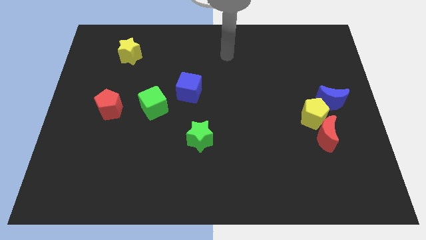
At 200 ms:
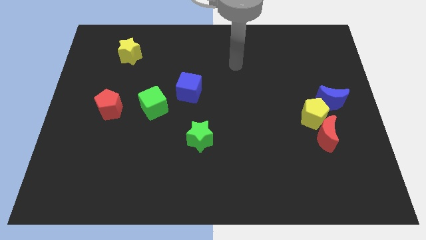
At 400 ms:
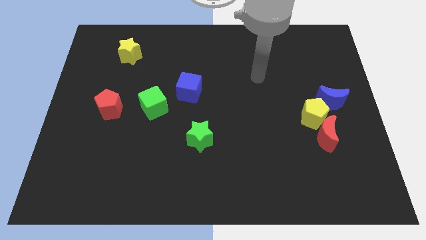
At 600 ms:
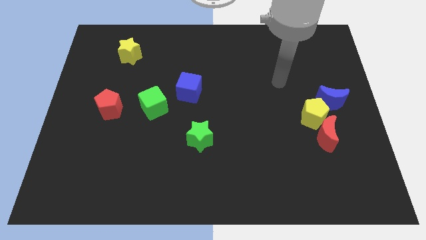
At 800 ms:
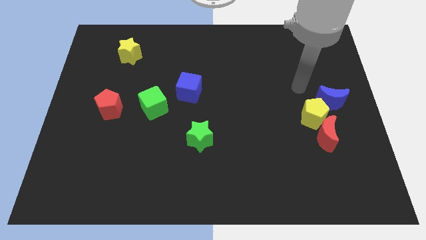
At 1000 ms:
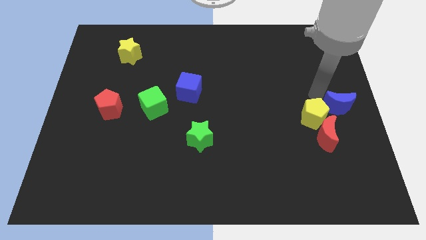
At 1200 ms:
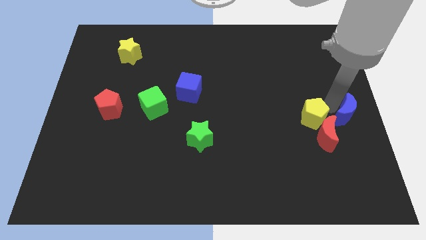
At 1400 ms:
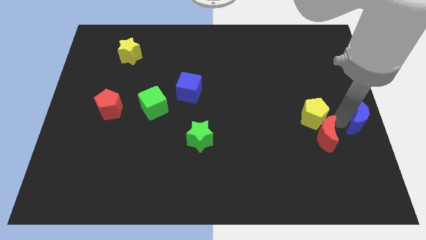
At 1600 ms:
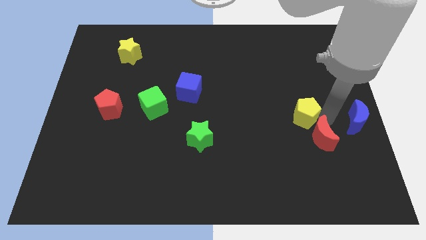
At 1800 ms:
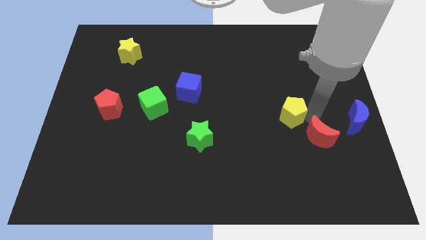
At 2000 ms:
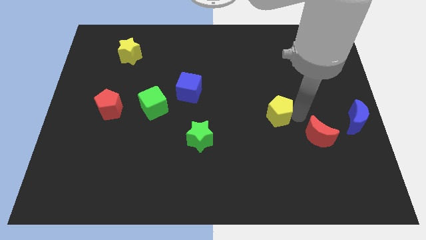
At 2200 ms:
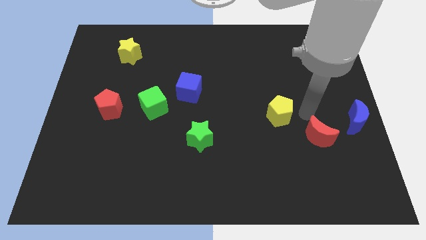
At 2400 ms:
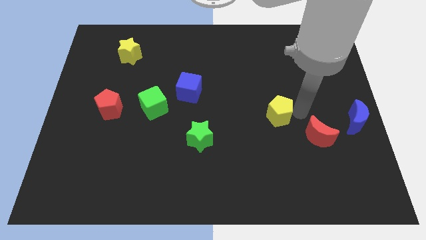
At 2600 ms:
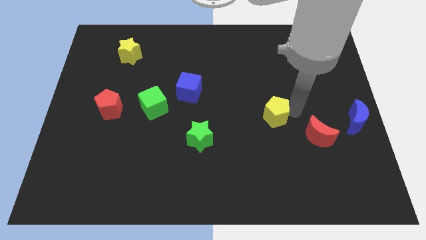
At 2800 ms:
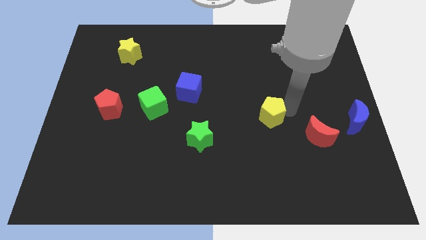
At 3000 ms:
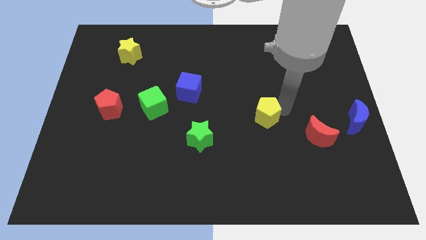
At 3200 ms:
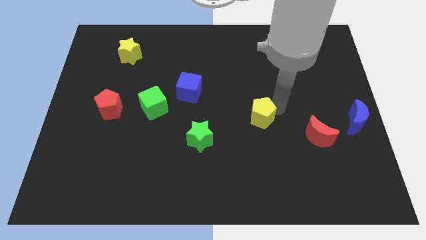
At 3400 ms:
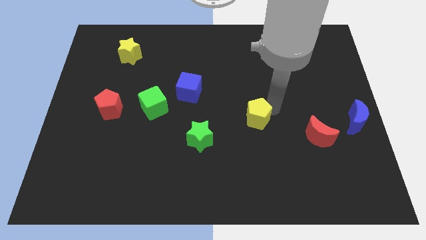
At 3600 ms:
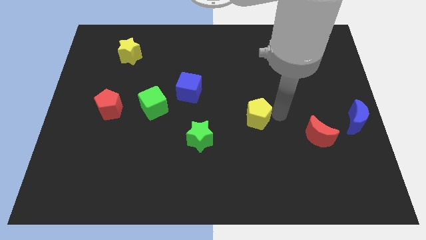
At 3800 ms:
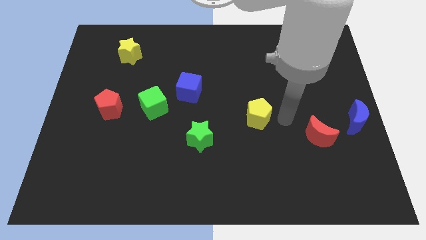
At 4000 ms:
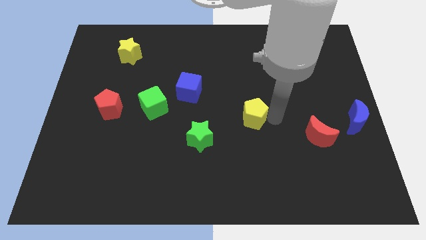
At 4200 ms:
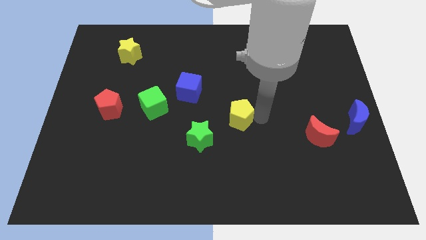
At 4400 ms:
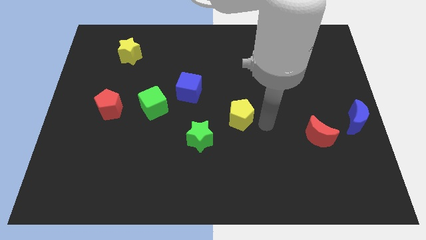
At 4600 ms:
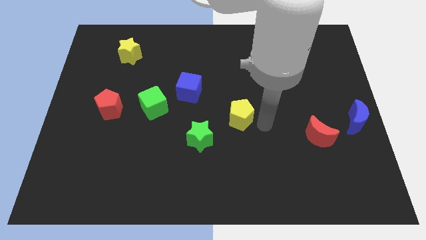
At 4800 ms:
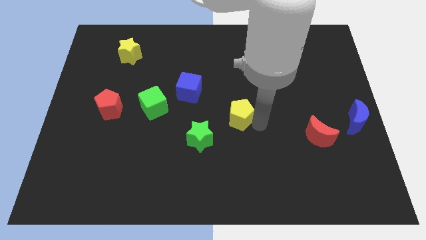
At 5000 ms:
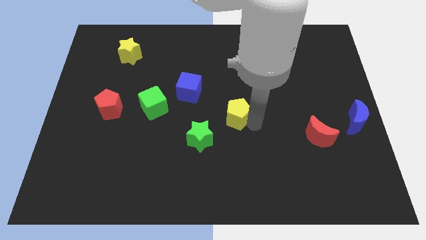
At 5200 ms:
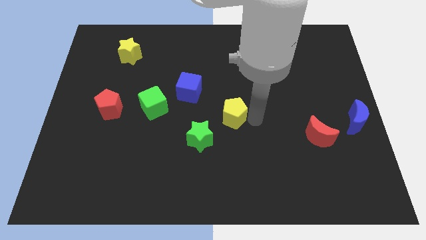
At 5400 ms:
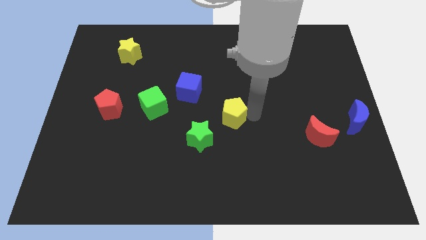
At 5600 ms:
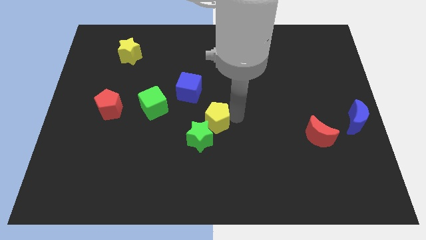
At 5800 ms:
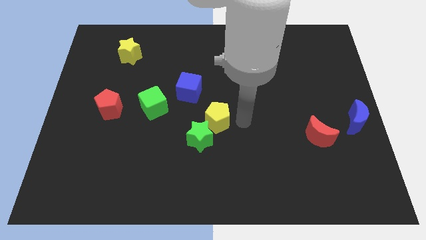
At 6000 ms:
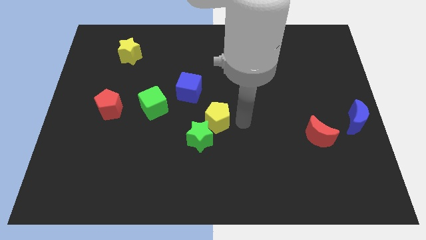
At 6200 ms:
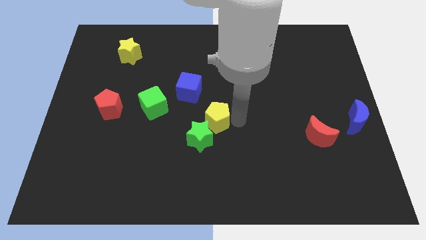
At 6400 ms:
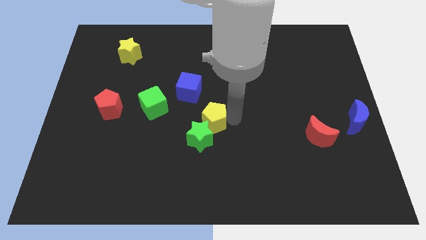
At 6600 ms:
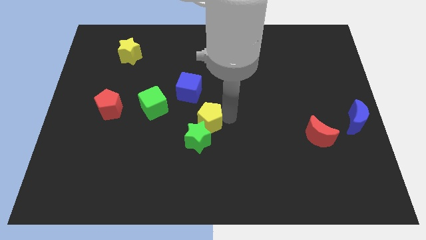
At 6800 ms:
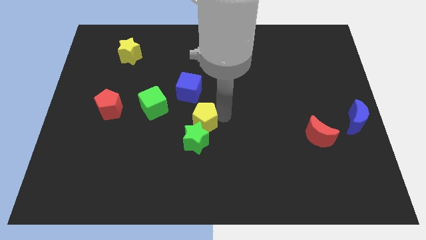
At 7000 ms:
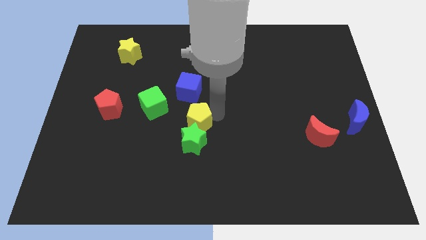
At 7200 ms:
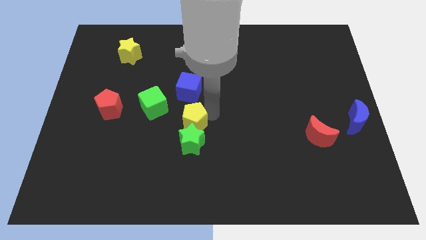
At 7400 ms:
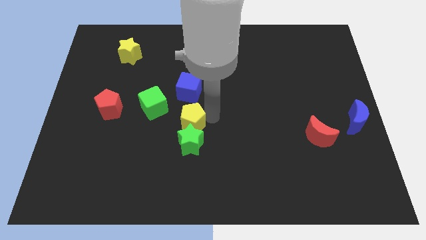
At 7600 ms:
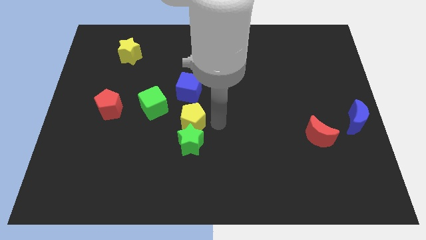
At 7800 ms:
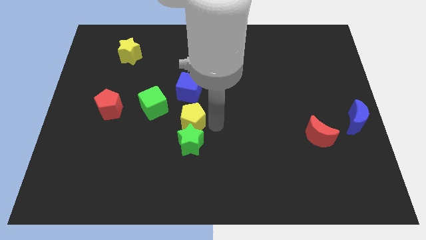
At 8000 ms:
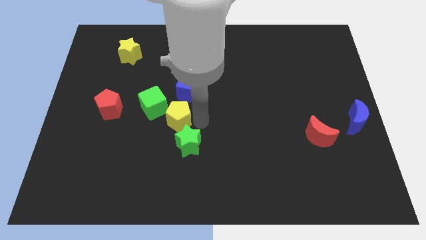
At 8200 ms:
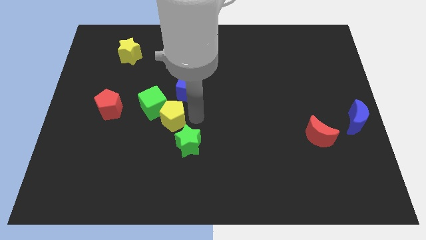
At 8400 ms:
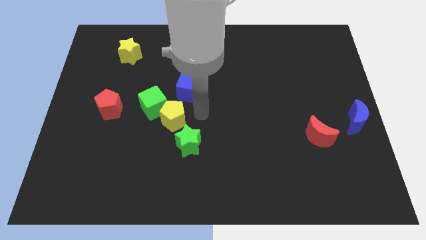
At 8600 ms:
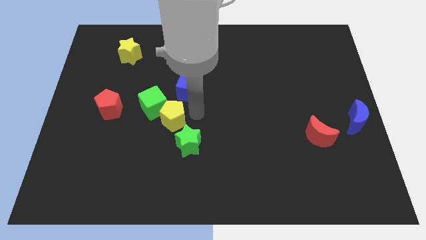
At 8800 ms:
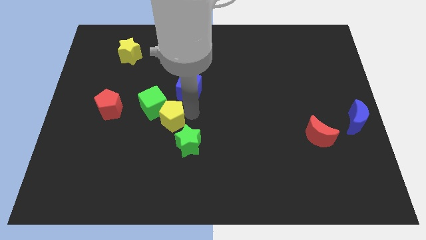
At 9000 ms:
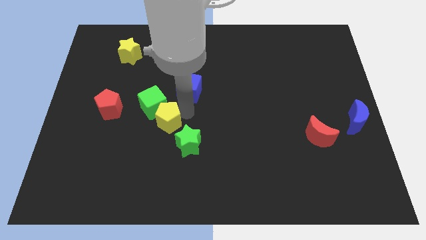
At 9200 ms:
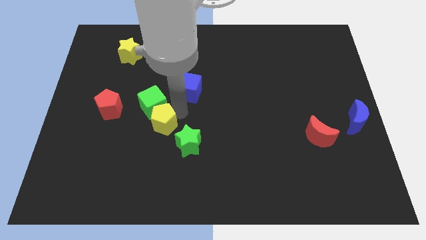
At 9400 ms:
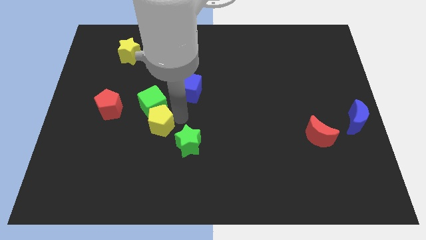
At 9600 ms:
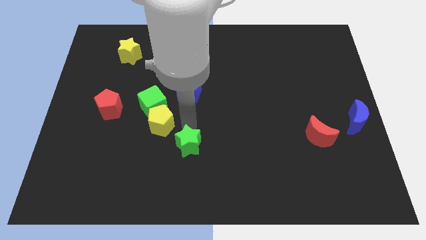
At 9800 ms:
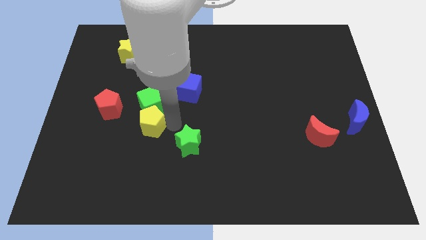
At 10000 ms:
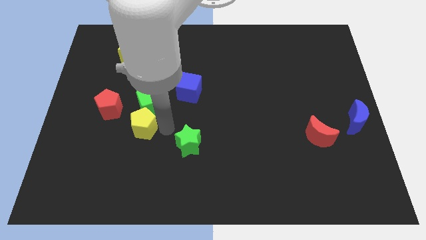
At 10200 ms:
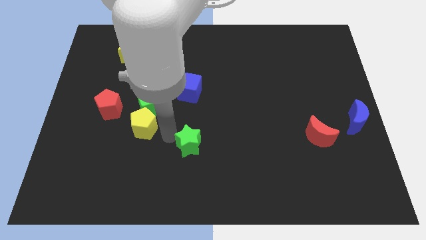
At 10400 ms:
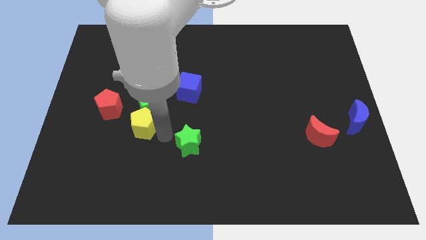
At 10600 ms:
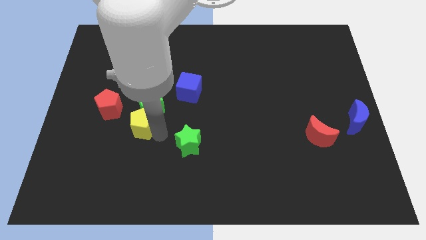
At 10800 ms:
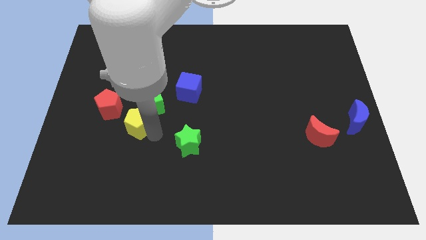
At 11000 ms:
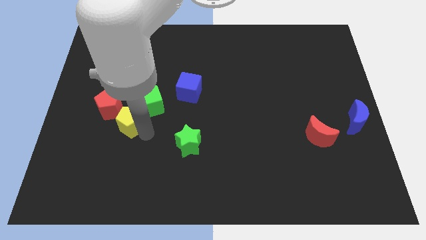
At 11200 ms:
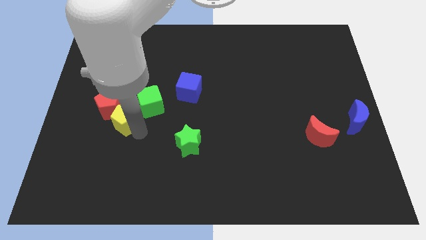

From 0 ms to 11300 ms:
move the yellow pentagon towards the red pentagon

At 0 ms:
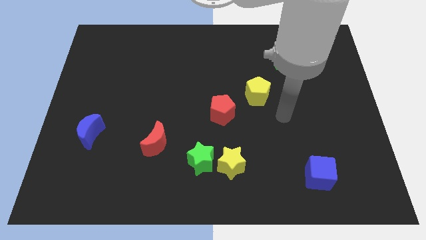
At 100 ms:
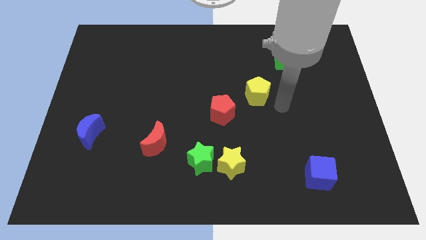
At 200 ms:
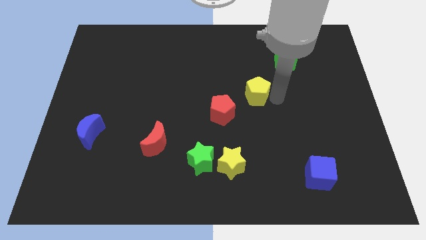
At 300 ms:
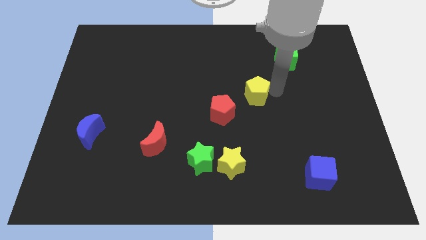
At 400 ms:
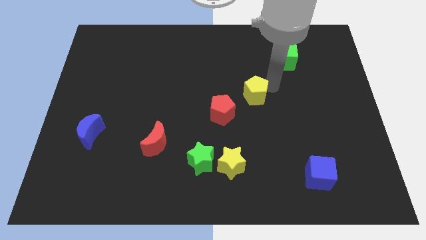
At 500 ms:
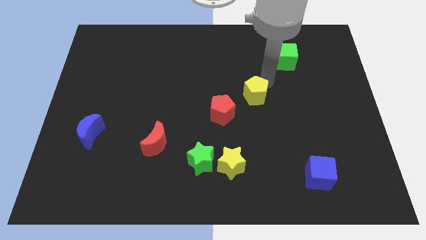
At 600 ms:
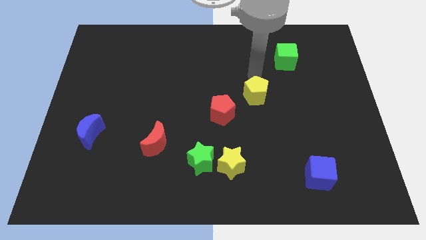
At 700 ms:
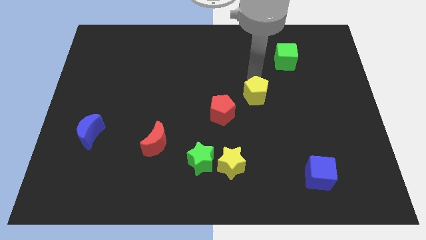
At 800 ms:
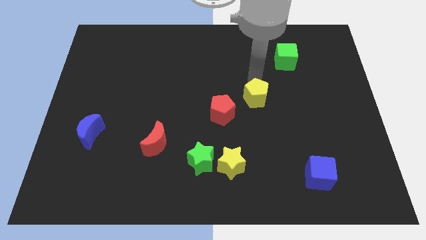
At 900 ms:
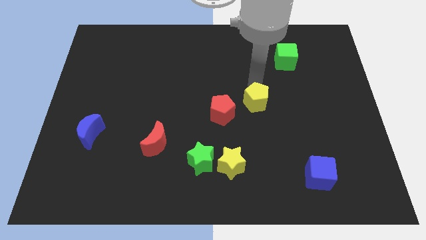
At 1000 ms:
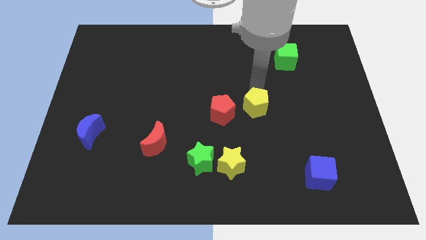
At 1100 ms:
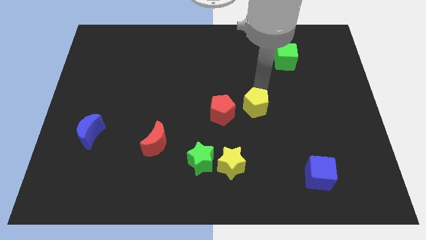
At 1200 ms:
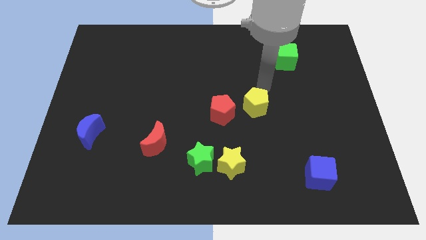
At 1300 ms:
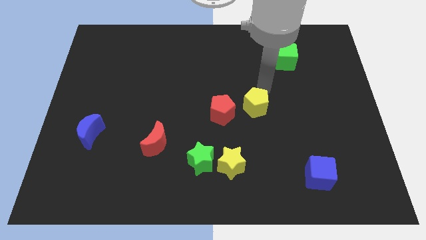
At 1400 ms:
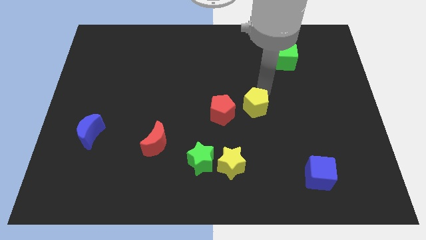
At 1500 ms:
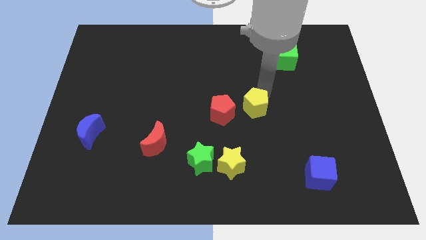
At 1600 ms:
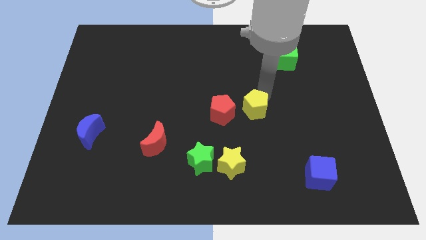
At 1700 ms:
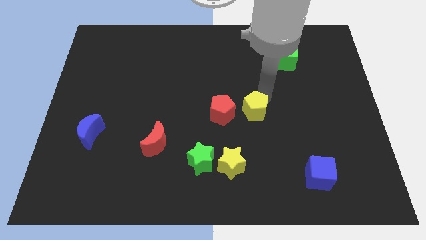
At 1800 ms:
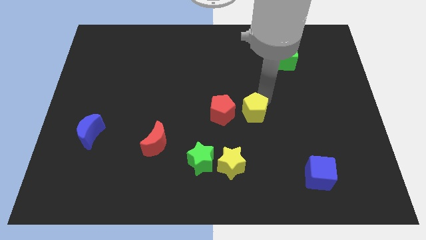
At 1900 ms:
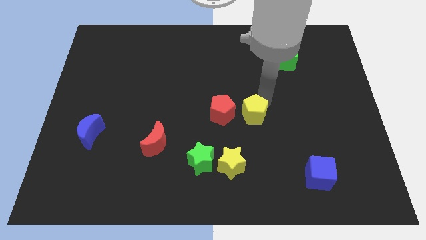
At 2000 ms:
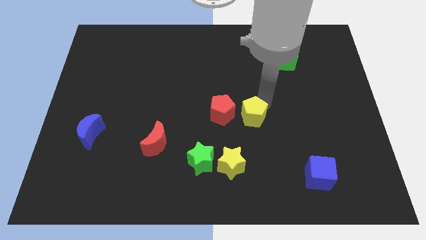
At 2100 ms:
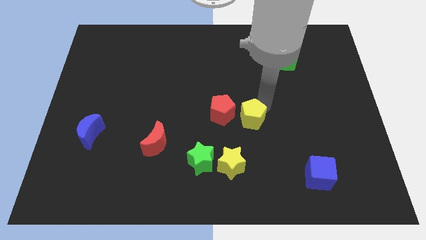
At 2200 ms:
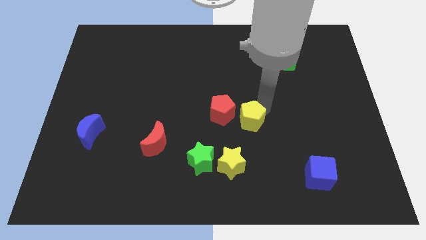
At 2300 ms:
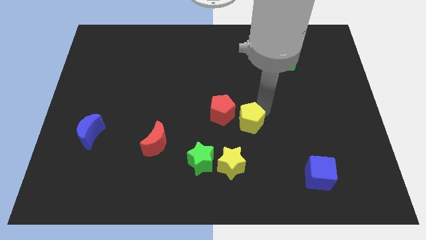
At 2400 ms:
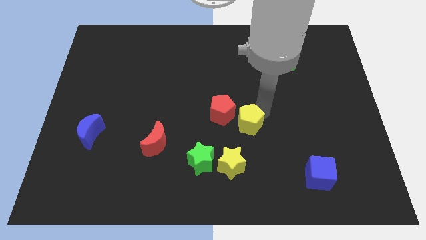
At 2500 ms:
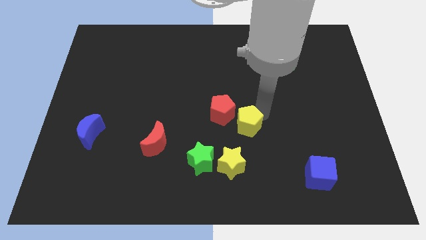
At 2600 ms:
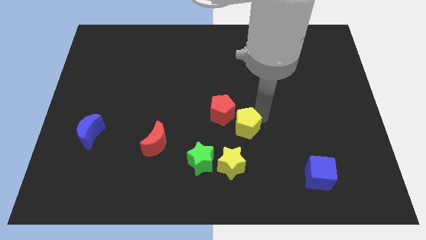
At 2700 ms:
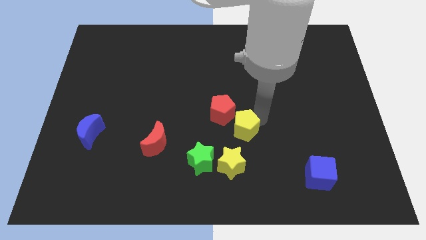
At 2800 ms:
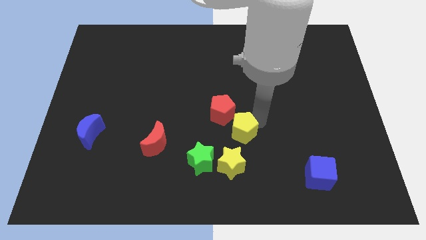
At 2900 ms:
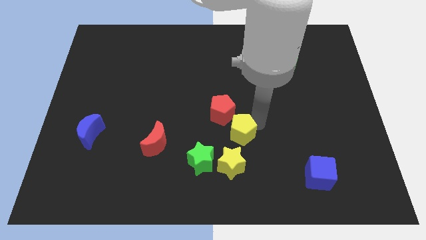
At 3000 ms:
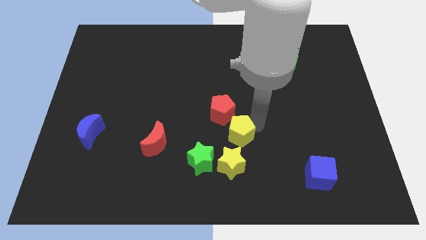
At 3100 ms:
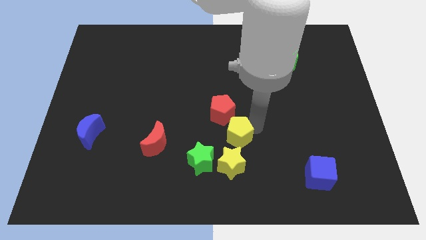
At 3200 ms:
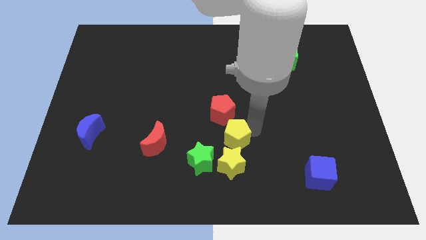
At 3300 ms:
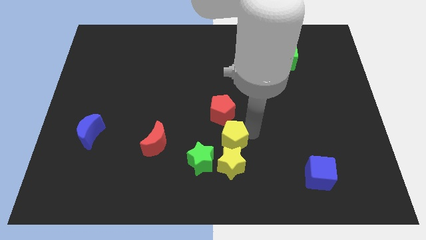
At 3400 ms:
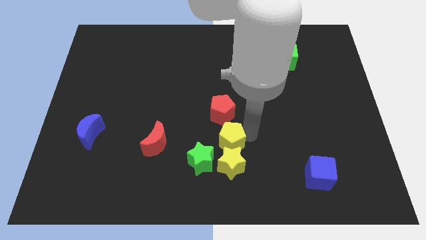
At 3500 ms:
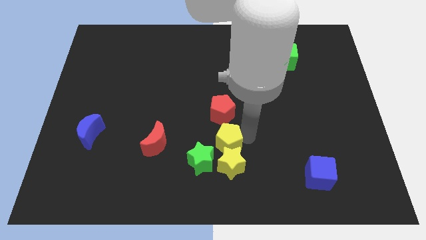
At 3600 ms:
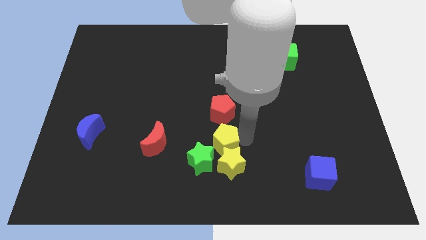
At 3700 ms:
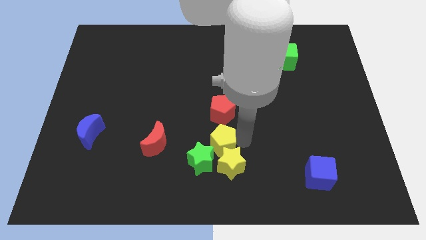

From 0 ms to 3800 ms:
slide the yellow pentagon next to the green star
